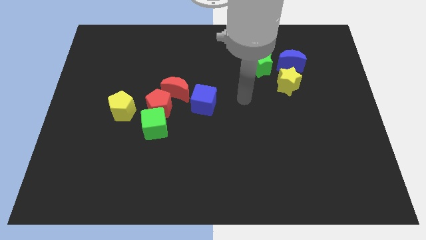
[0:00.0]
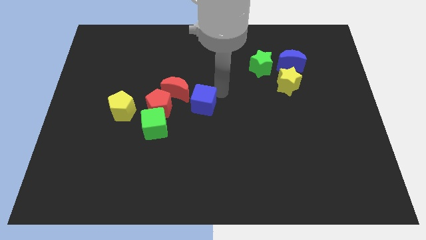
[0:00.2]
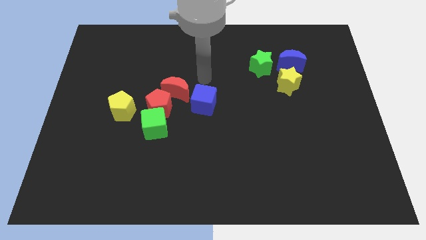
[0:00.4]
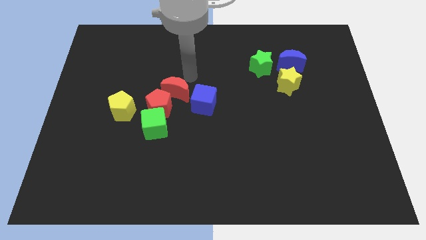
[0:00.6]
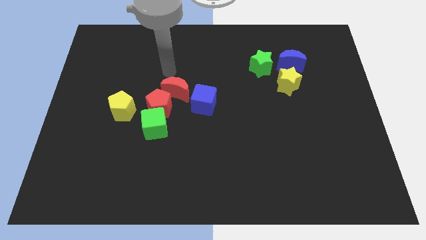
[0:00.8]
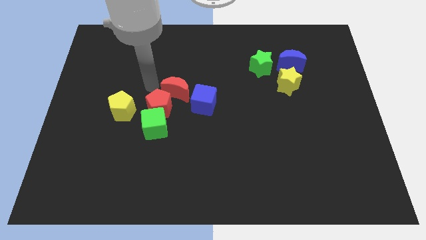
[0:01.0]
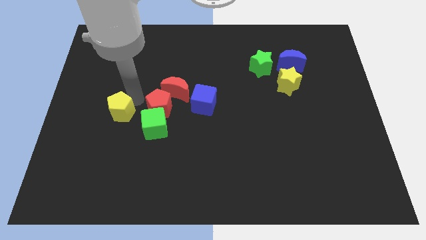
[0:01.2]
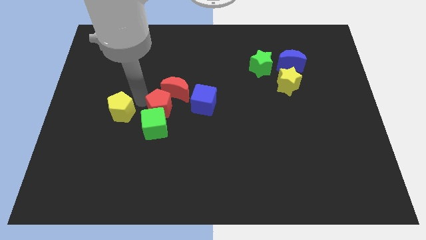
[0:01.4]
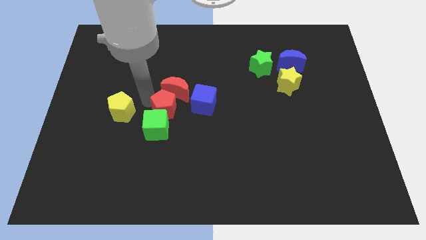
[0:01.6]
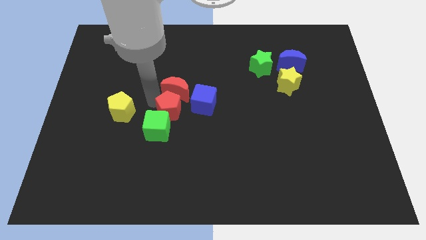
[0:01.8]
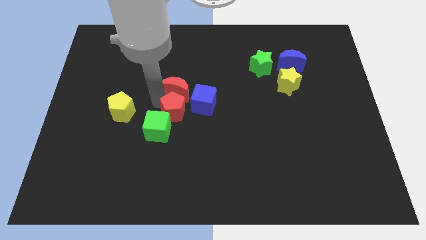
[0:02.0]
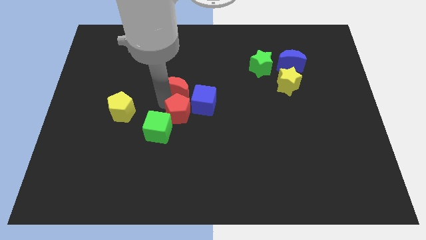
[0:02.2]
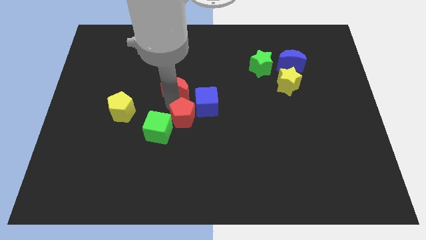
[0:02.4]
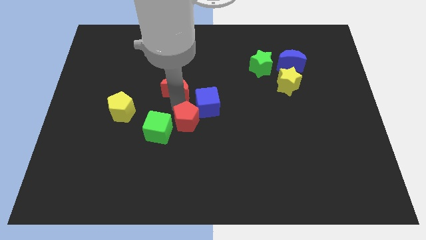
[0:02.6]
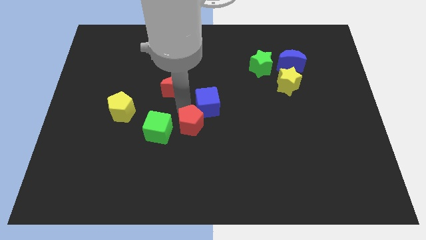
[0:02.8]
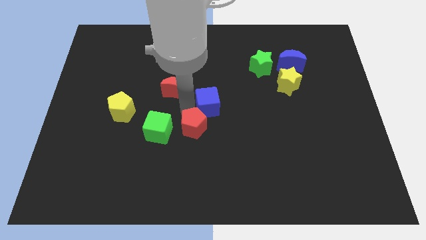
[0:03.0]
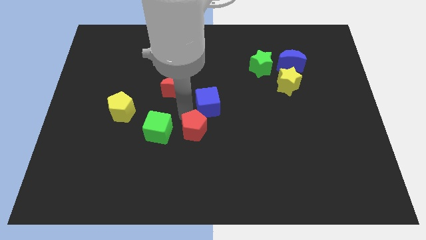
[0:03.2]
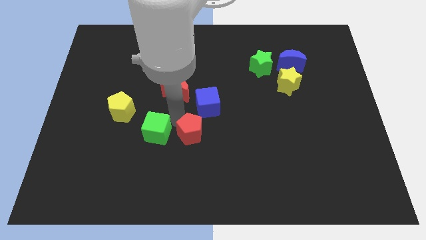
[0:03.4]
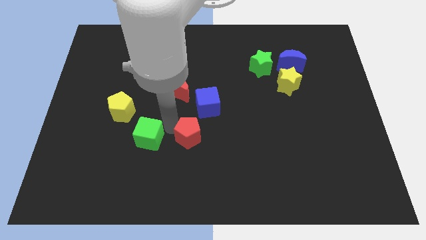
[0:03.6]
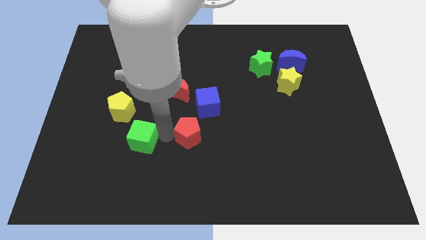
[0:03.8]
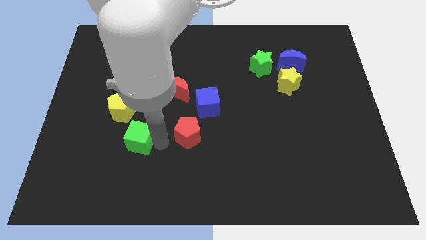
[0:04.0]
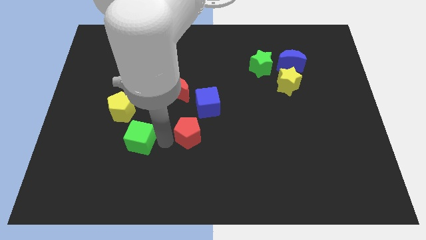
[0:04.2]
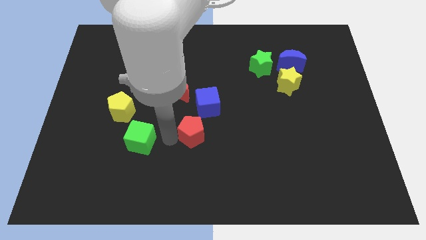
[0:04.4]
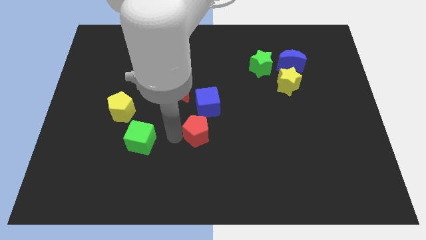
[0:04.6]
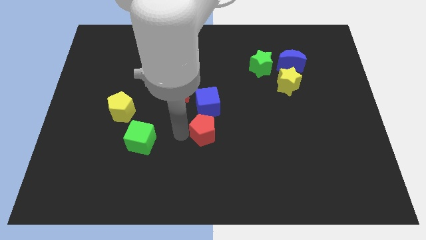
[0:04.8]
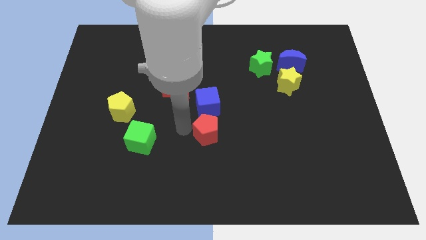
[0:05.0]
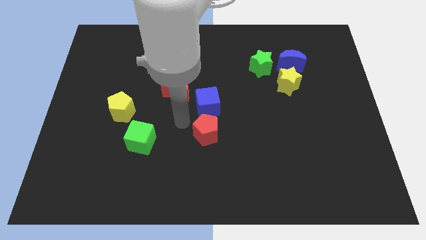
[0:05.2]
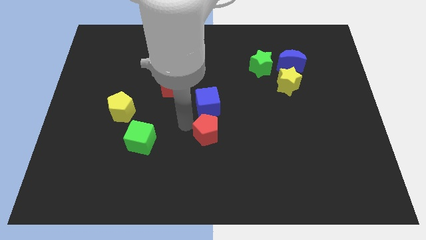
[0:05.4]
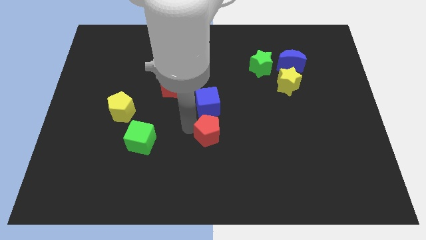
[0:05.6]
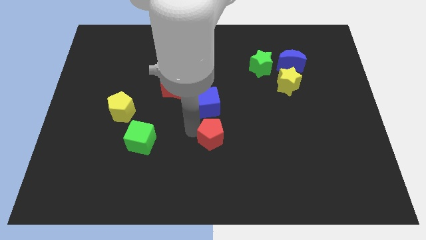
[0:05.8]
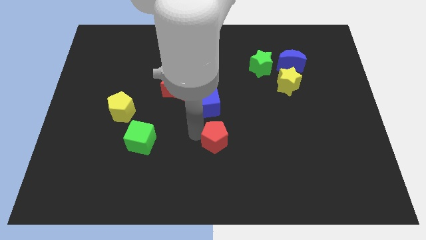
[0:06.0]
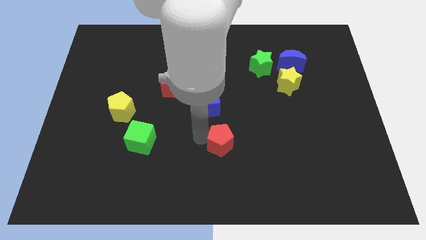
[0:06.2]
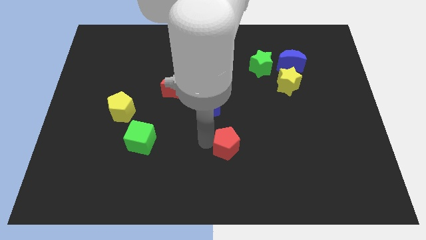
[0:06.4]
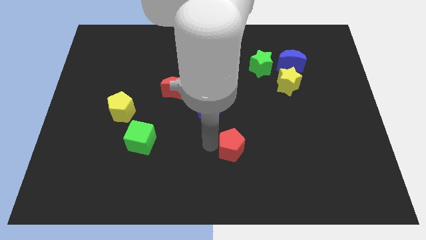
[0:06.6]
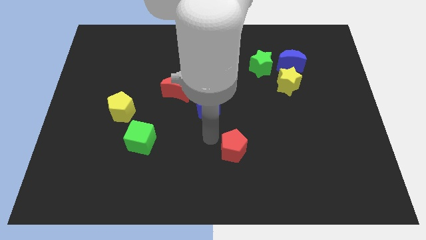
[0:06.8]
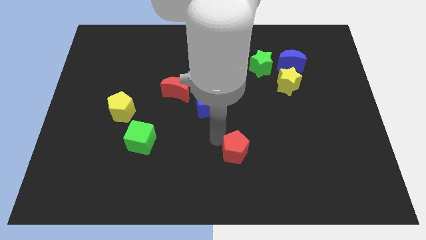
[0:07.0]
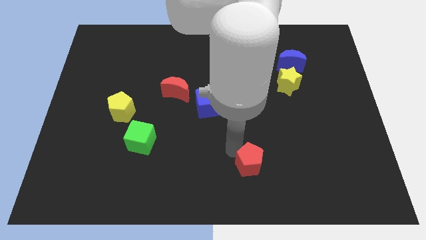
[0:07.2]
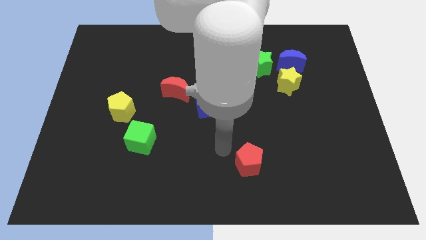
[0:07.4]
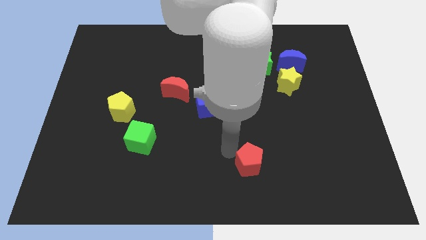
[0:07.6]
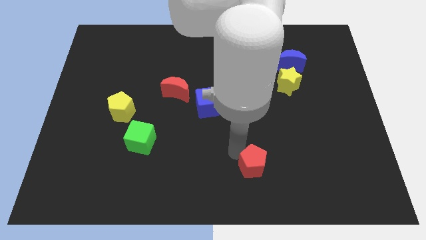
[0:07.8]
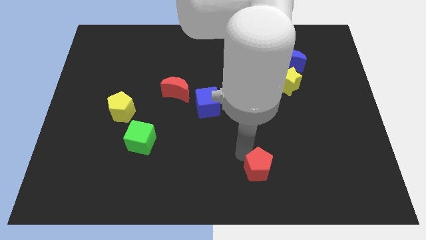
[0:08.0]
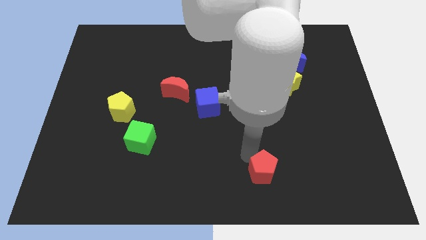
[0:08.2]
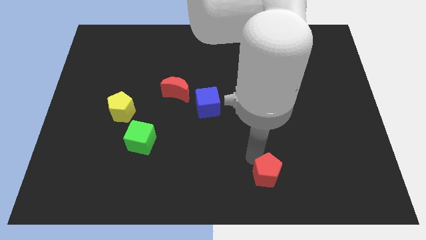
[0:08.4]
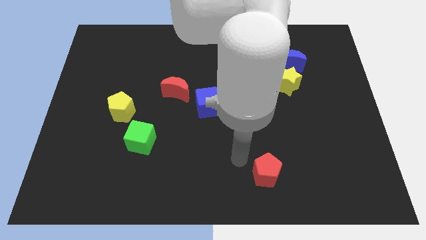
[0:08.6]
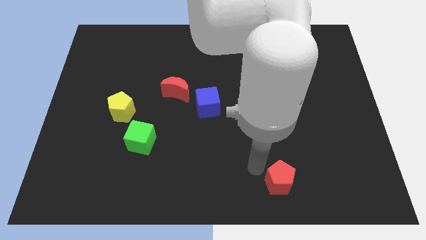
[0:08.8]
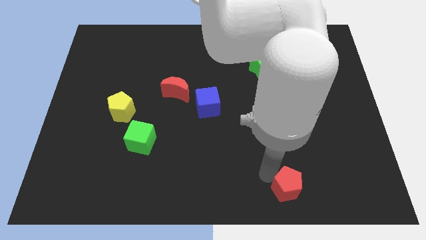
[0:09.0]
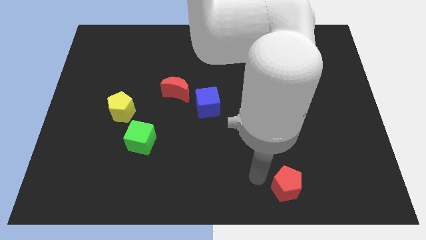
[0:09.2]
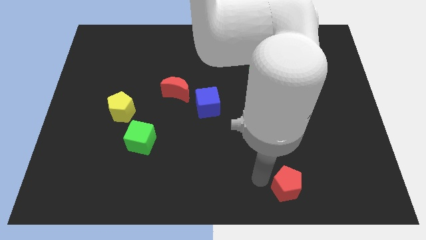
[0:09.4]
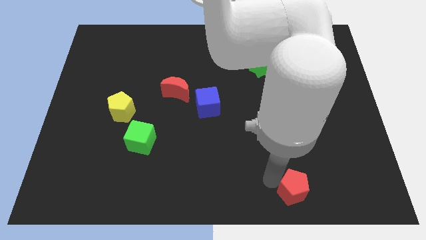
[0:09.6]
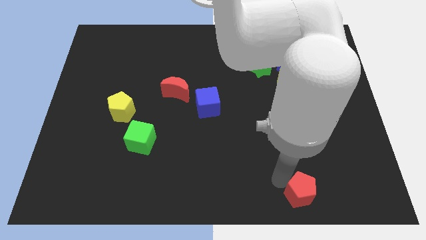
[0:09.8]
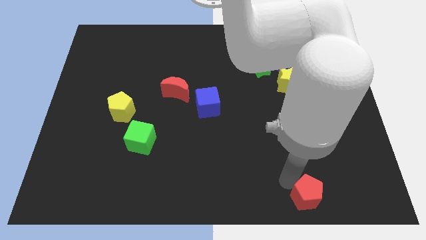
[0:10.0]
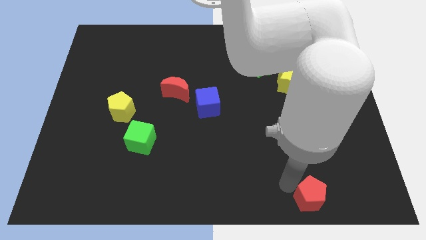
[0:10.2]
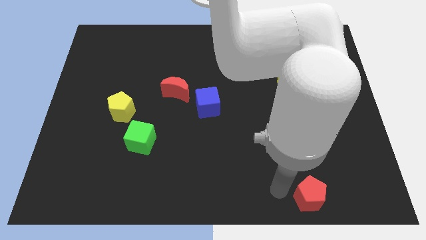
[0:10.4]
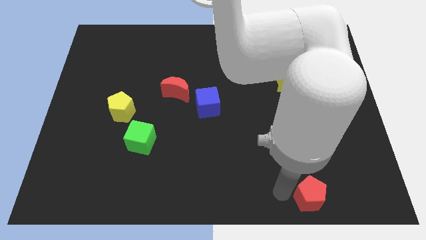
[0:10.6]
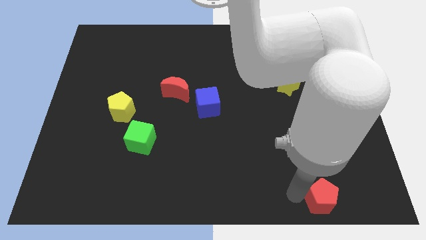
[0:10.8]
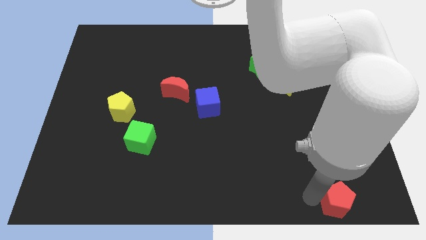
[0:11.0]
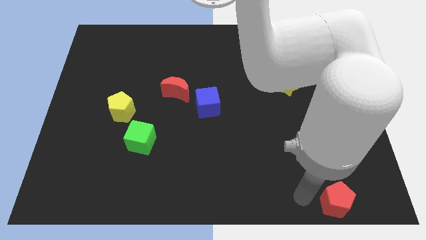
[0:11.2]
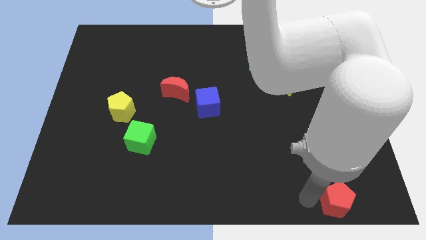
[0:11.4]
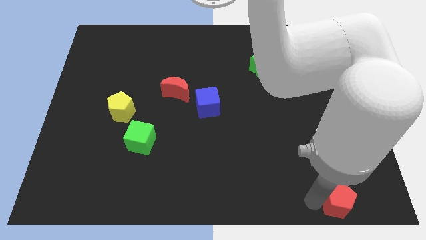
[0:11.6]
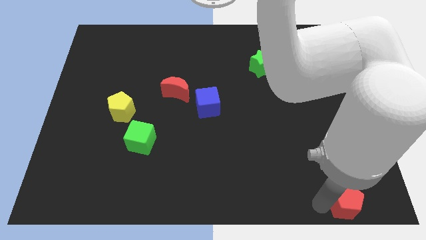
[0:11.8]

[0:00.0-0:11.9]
push the red pentagon to the bottom right of the board
